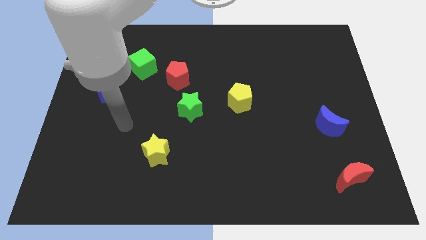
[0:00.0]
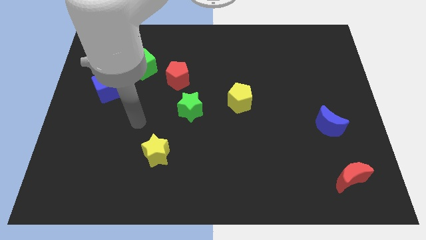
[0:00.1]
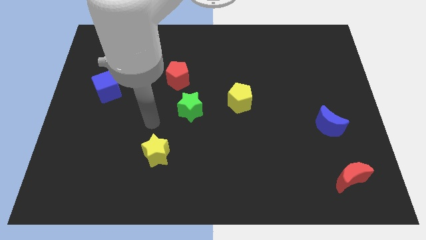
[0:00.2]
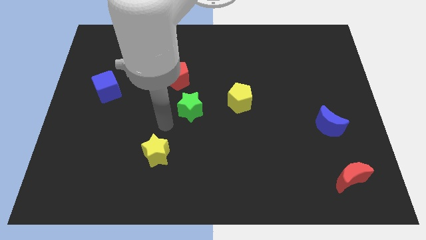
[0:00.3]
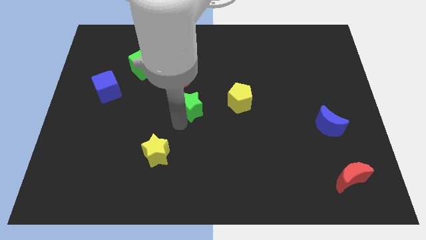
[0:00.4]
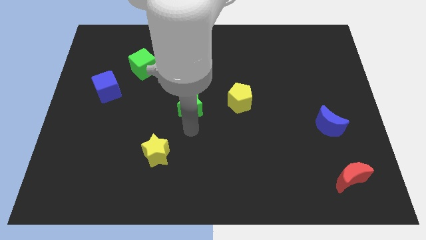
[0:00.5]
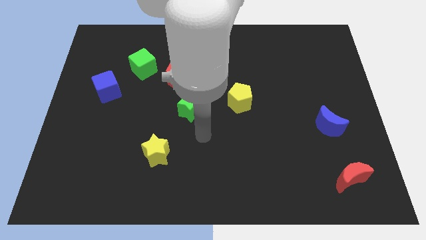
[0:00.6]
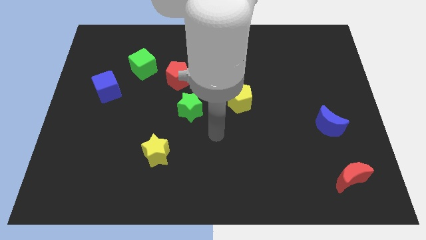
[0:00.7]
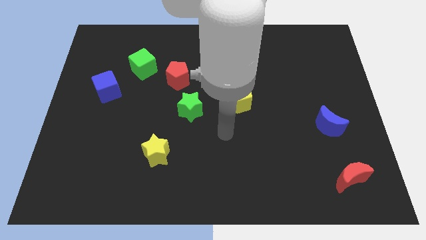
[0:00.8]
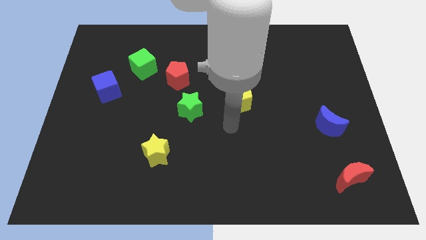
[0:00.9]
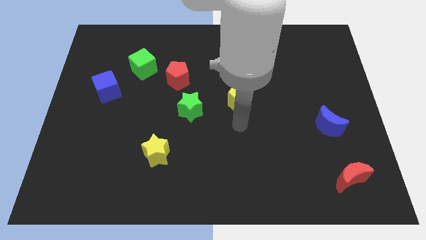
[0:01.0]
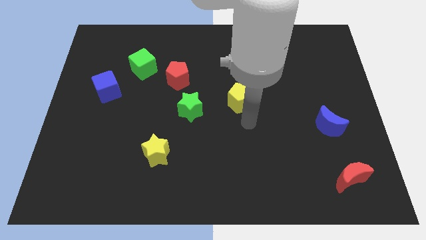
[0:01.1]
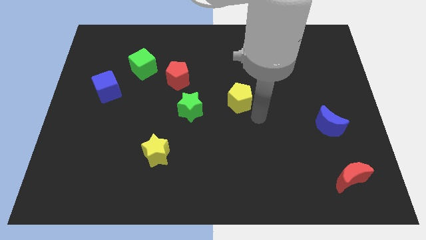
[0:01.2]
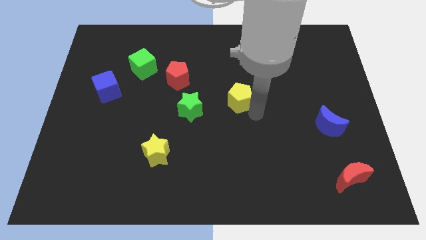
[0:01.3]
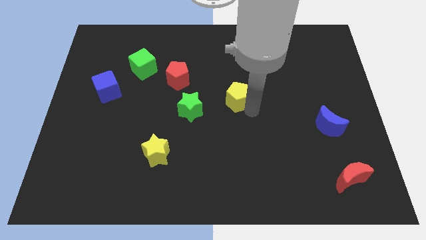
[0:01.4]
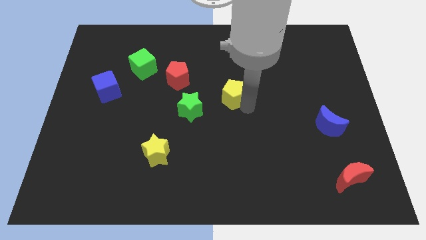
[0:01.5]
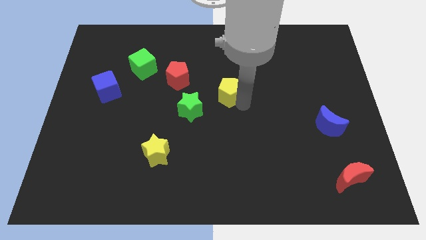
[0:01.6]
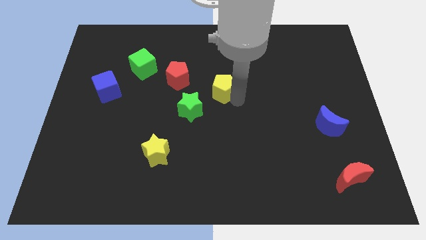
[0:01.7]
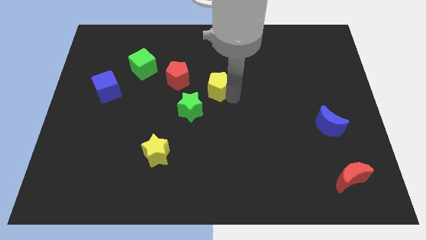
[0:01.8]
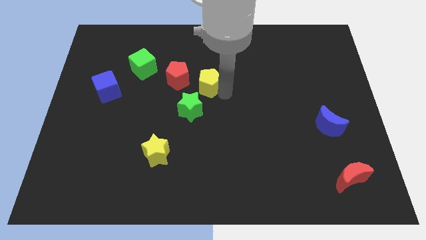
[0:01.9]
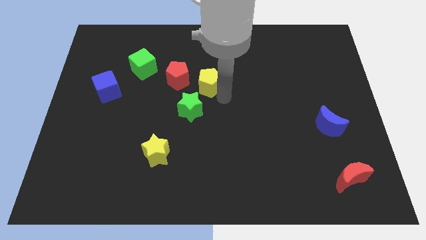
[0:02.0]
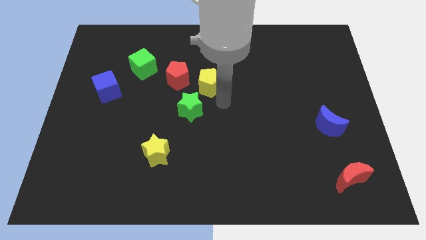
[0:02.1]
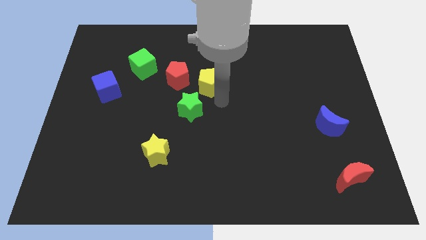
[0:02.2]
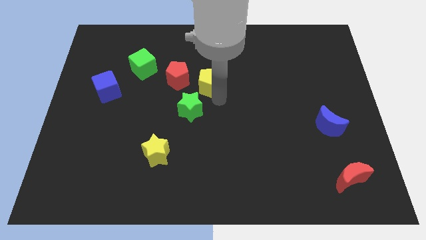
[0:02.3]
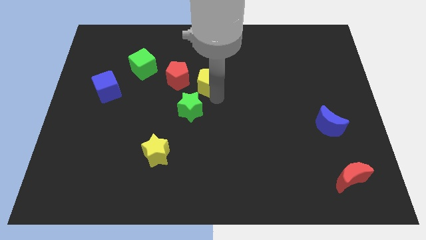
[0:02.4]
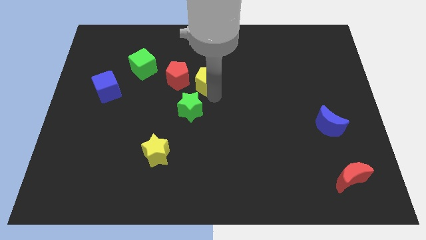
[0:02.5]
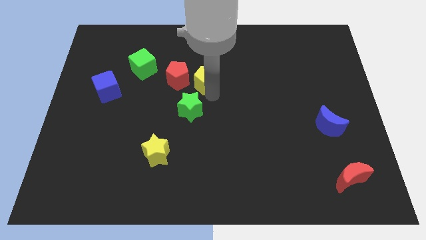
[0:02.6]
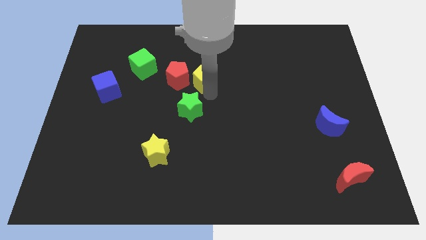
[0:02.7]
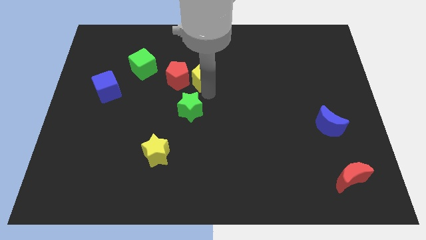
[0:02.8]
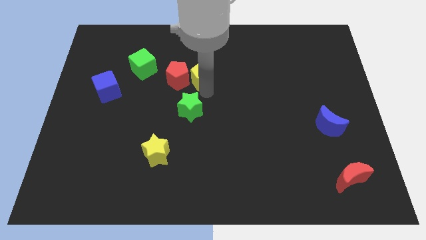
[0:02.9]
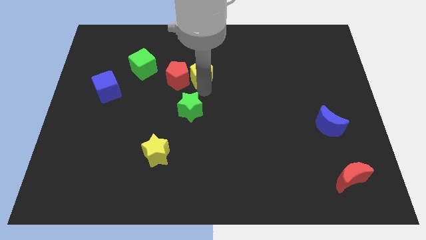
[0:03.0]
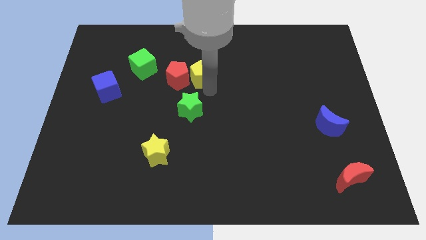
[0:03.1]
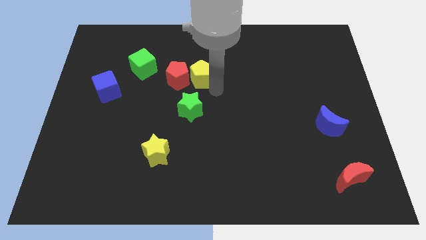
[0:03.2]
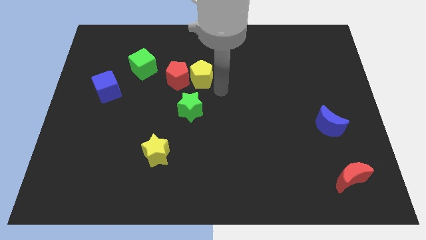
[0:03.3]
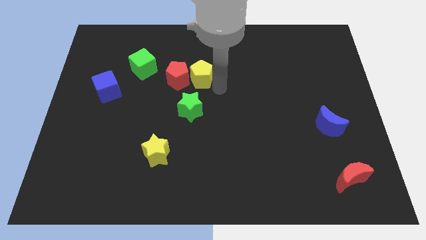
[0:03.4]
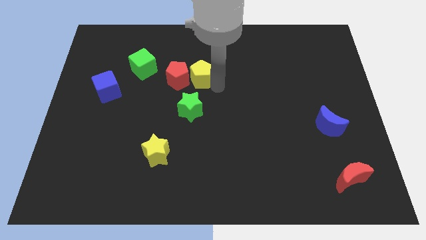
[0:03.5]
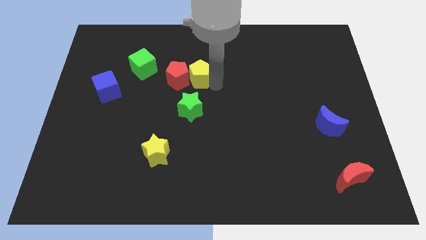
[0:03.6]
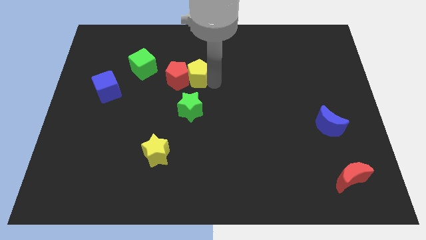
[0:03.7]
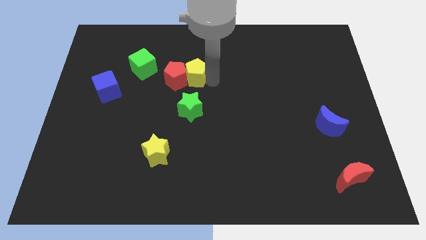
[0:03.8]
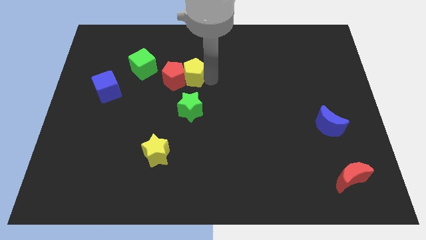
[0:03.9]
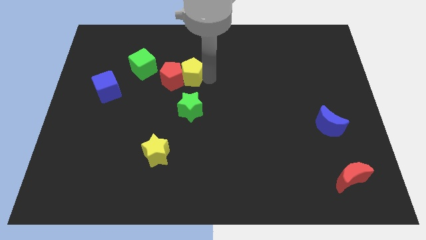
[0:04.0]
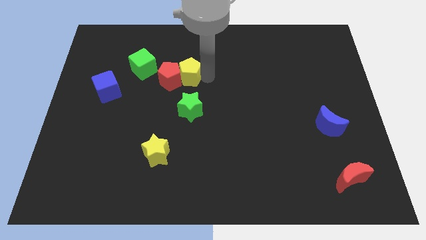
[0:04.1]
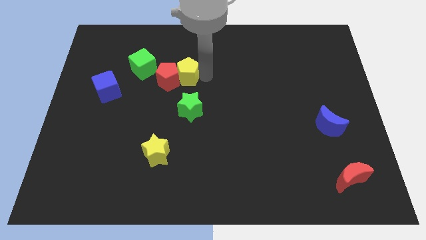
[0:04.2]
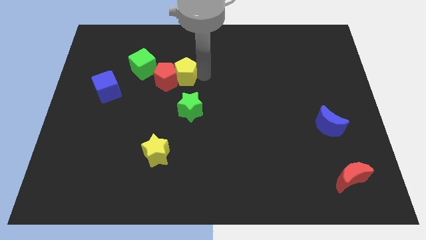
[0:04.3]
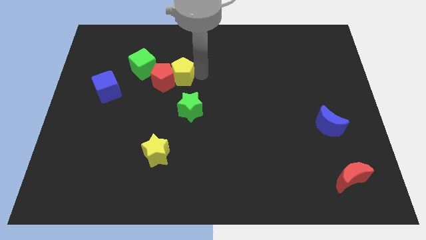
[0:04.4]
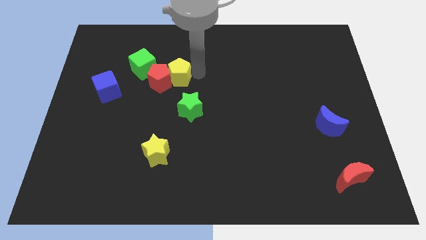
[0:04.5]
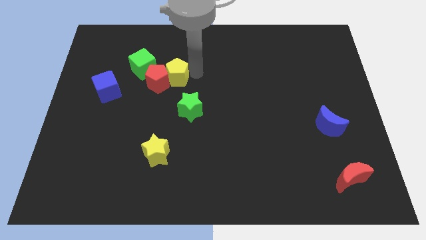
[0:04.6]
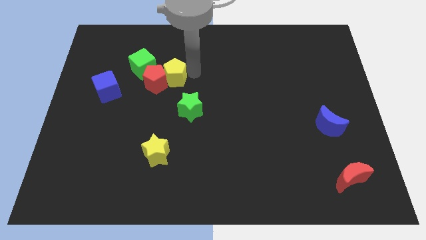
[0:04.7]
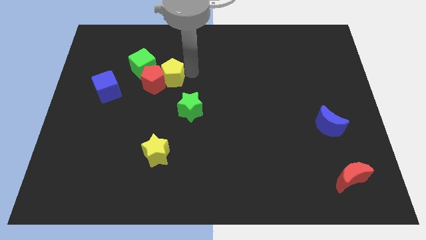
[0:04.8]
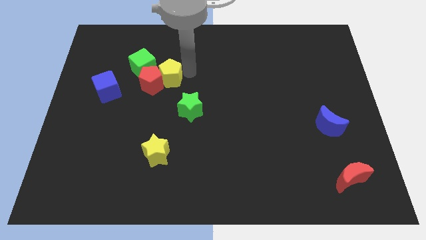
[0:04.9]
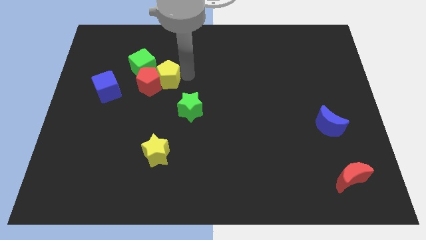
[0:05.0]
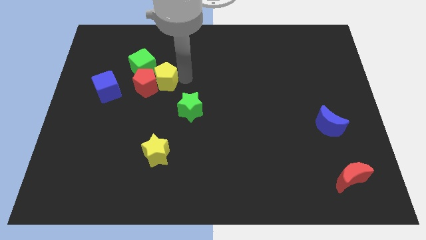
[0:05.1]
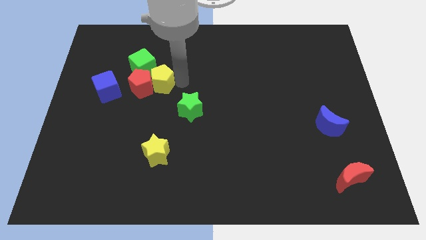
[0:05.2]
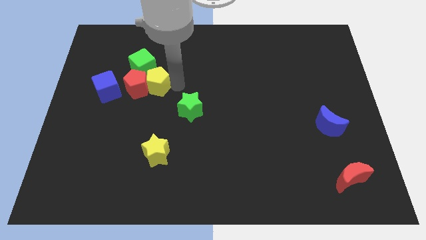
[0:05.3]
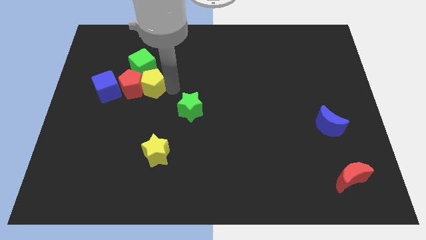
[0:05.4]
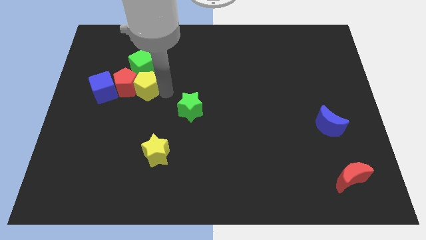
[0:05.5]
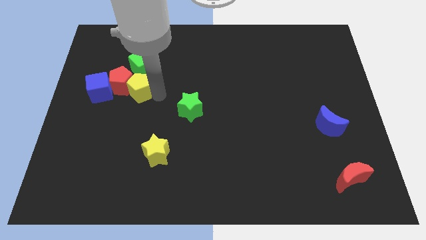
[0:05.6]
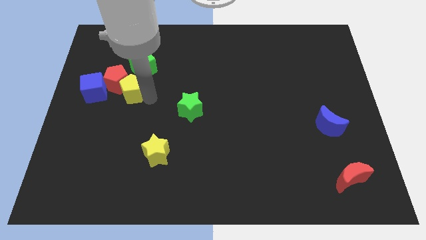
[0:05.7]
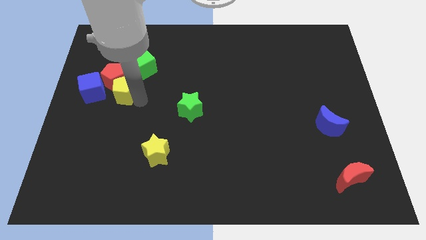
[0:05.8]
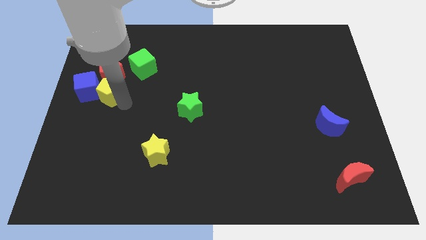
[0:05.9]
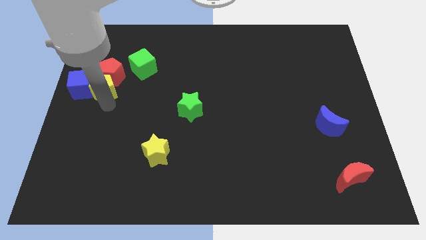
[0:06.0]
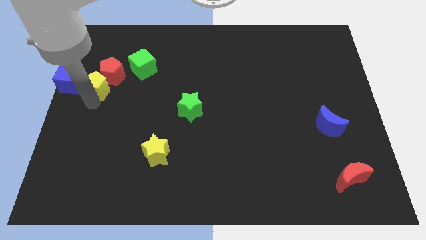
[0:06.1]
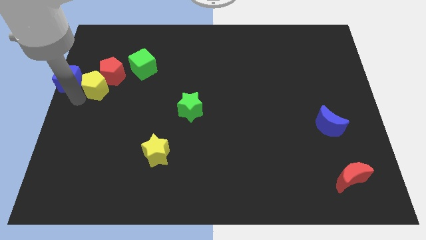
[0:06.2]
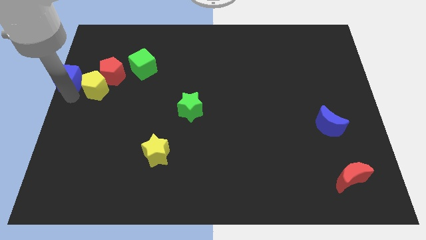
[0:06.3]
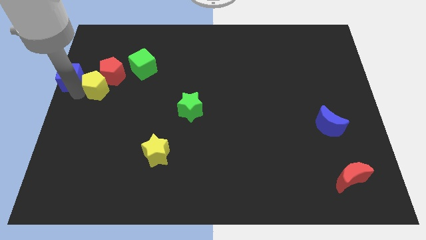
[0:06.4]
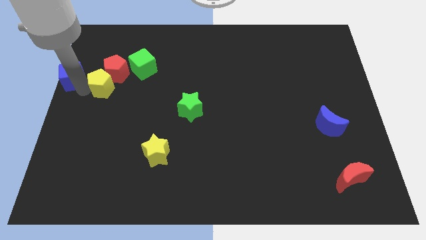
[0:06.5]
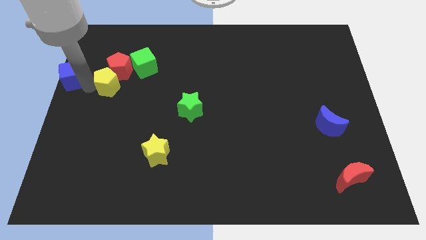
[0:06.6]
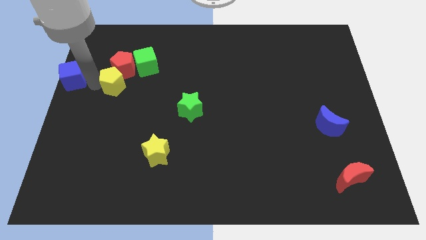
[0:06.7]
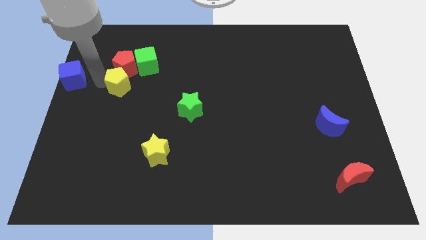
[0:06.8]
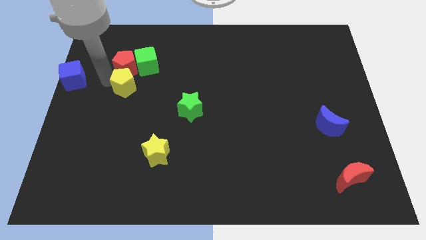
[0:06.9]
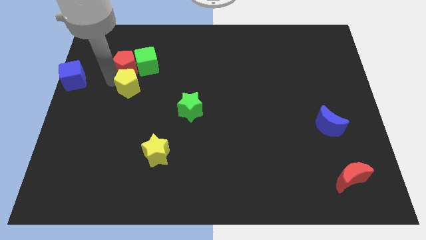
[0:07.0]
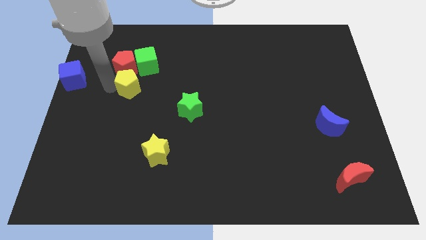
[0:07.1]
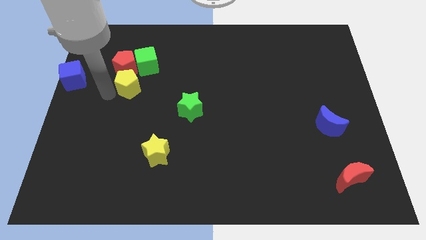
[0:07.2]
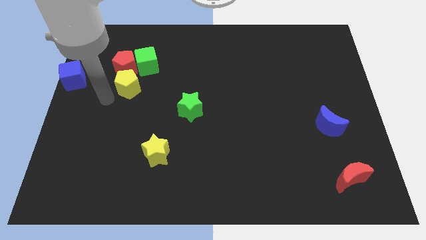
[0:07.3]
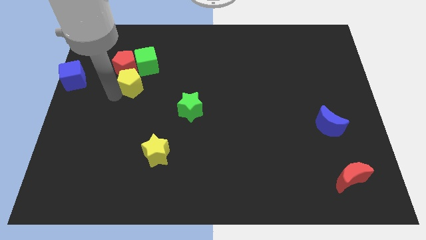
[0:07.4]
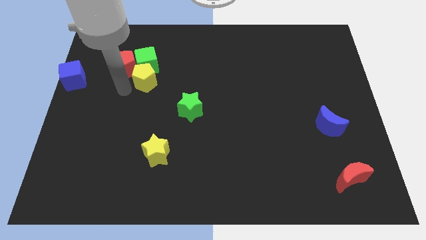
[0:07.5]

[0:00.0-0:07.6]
move the yellow pentagon towards the green cube
